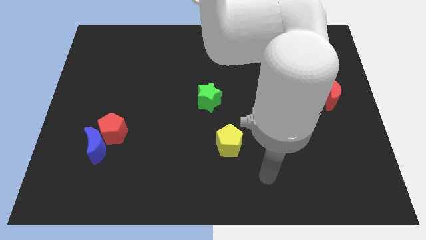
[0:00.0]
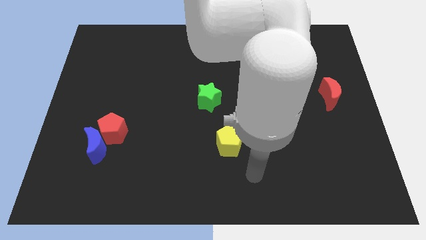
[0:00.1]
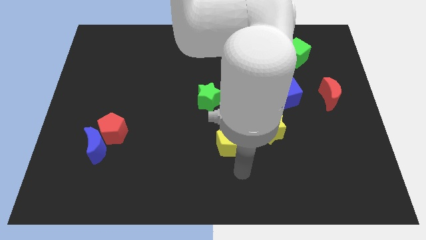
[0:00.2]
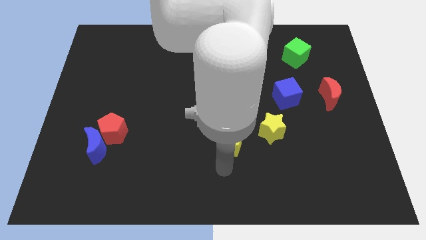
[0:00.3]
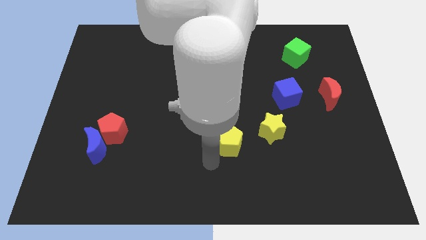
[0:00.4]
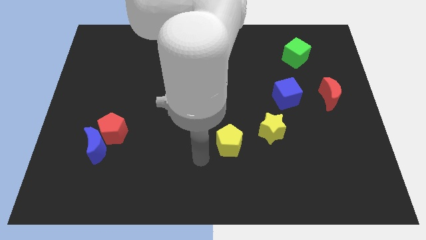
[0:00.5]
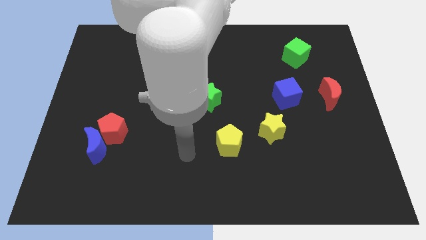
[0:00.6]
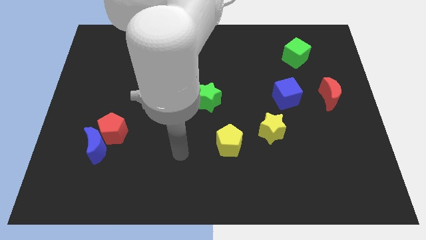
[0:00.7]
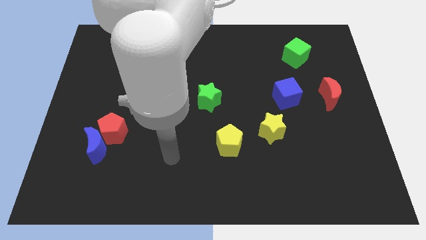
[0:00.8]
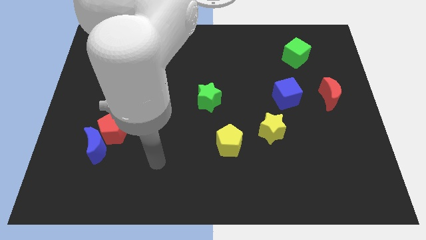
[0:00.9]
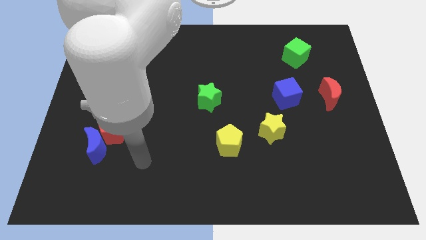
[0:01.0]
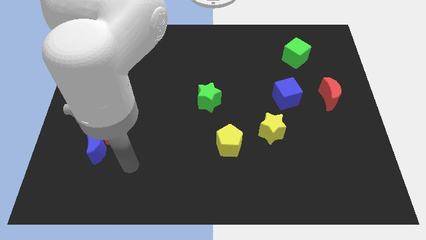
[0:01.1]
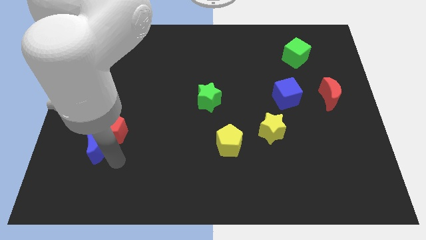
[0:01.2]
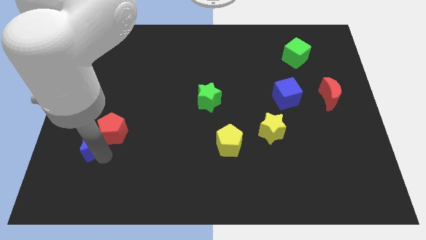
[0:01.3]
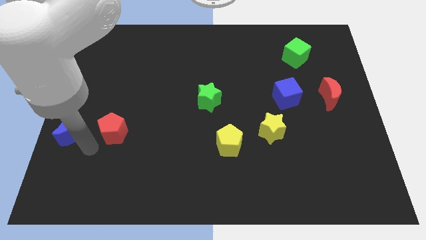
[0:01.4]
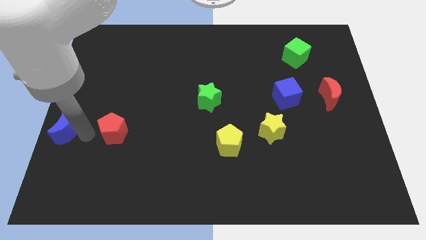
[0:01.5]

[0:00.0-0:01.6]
move the red pentagon away from the blue moon

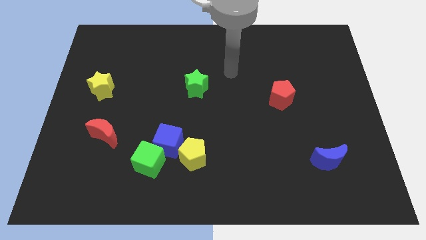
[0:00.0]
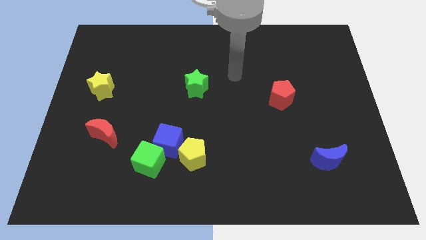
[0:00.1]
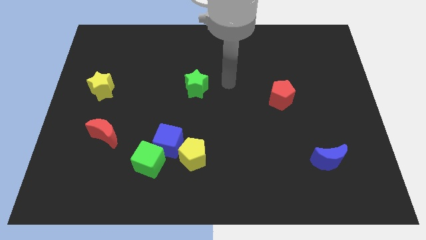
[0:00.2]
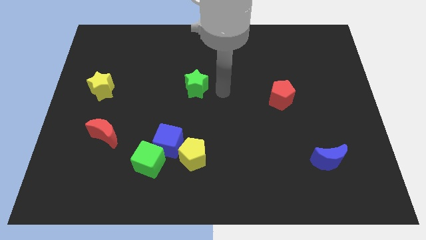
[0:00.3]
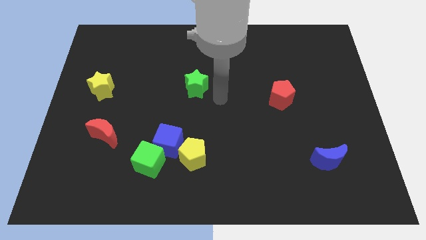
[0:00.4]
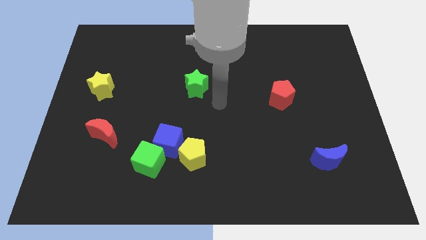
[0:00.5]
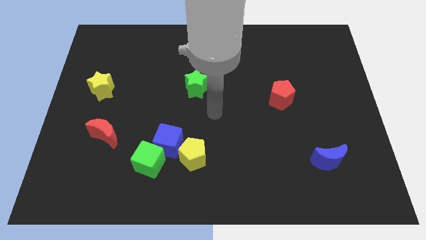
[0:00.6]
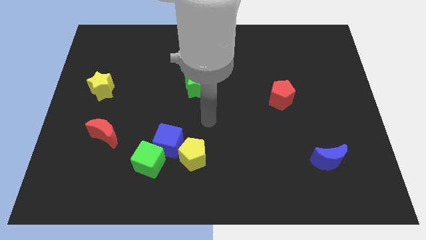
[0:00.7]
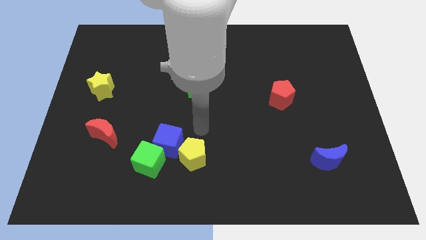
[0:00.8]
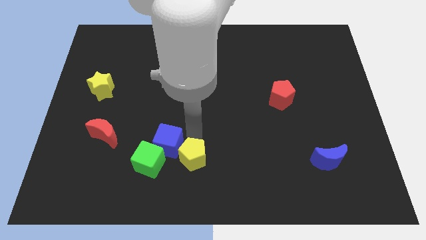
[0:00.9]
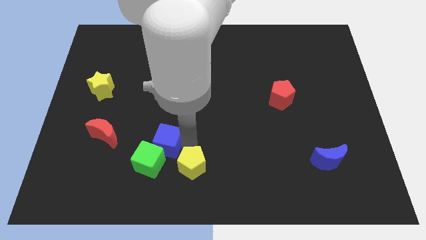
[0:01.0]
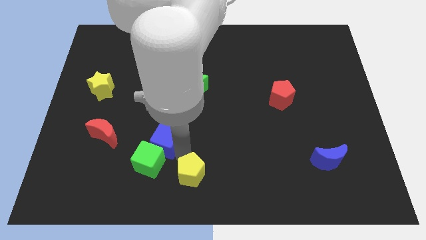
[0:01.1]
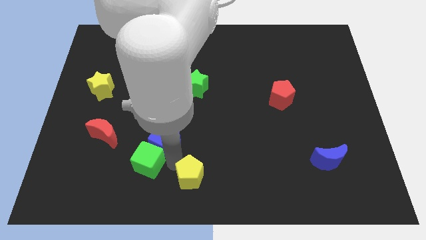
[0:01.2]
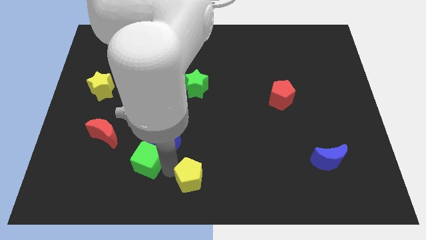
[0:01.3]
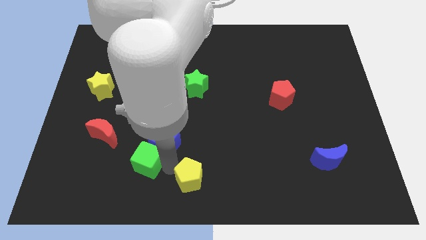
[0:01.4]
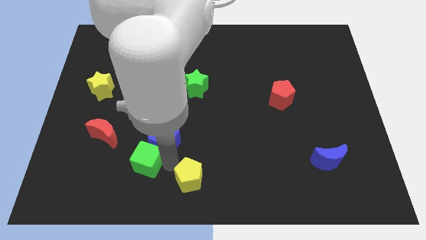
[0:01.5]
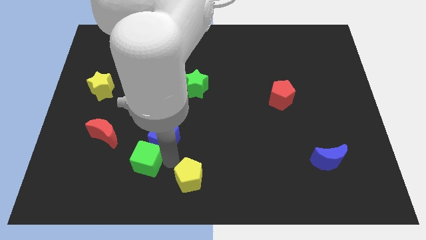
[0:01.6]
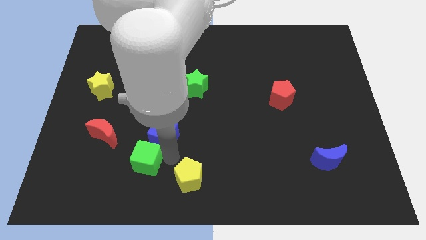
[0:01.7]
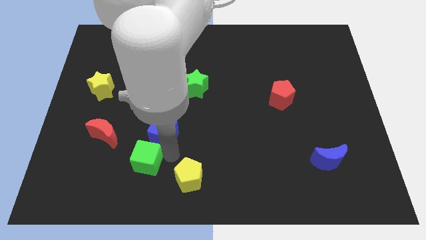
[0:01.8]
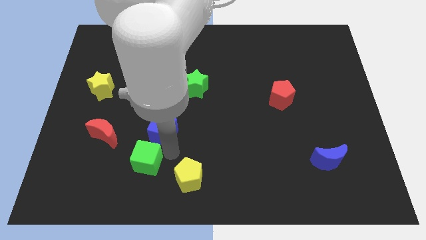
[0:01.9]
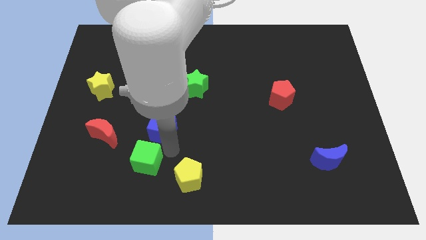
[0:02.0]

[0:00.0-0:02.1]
separate the blue cube from the green cube and yellow pentagon

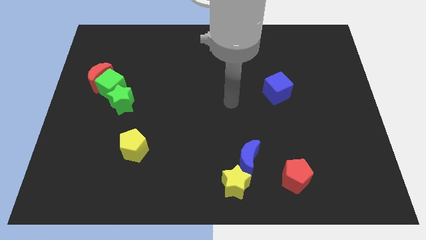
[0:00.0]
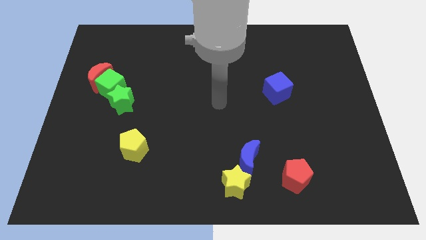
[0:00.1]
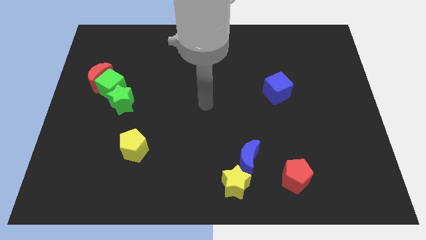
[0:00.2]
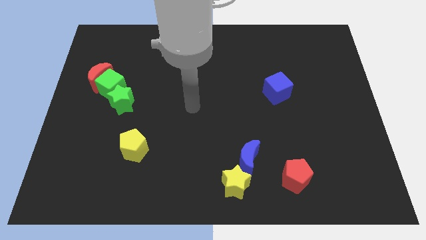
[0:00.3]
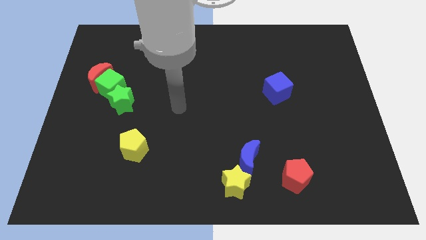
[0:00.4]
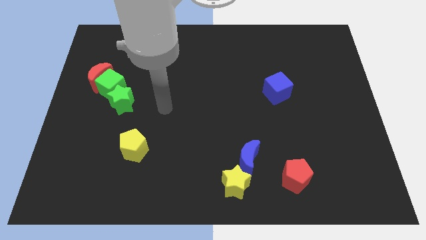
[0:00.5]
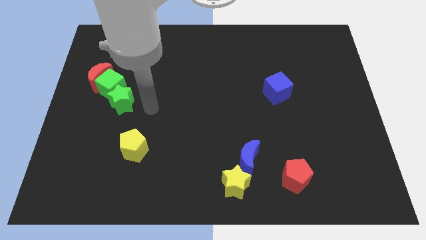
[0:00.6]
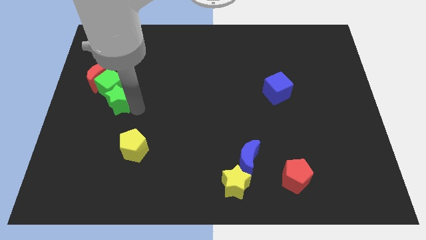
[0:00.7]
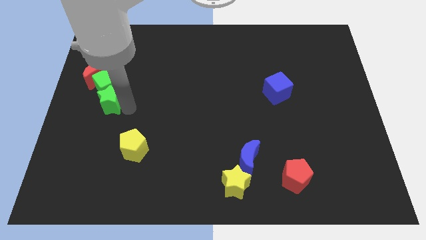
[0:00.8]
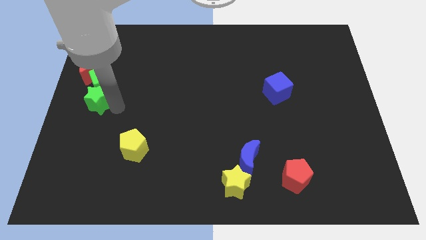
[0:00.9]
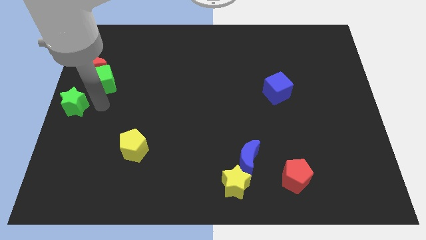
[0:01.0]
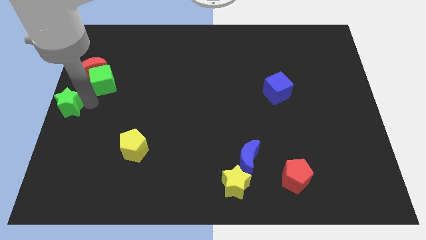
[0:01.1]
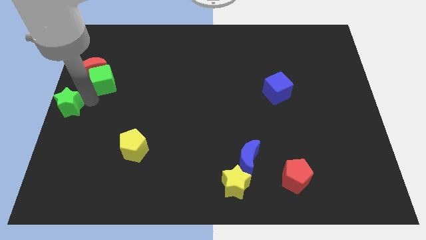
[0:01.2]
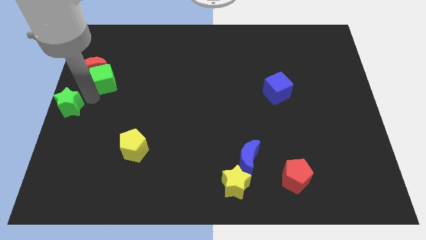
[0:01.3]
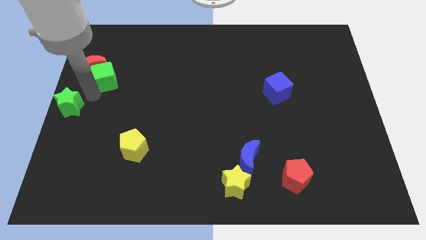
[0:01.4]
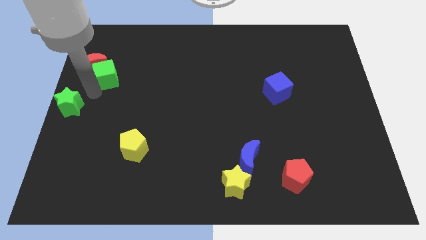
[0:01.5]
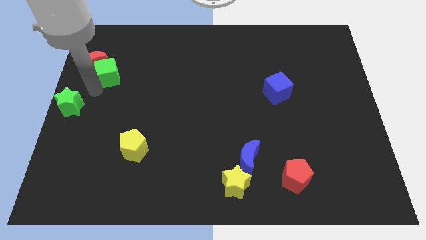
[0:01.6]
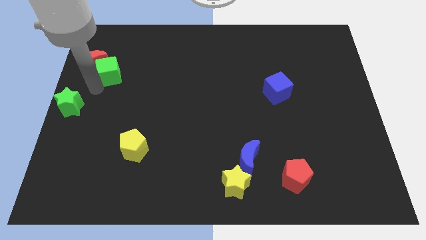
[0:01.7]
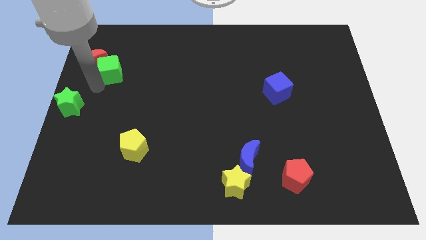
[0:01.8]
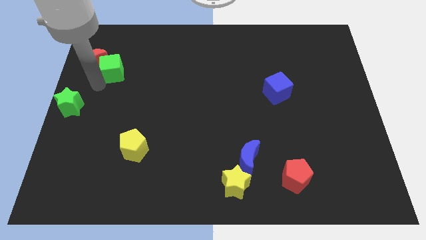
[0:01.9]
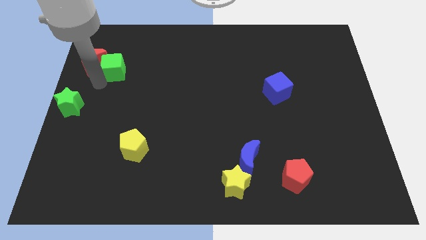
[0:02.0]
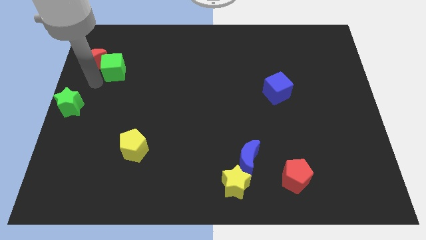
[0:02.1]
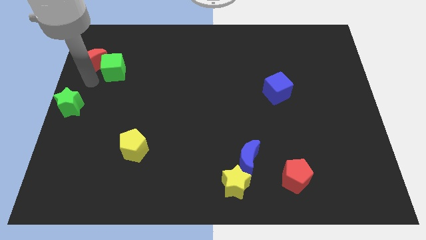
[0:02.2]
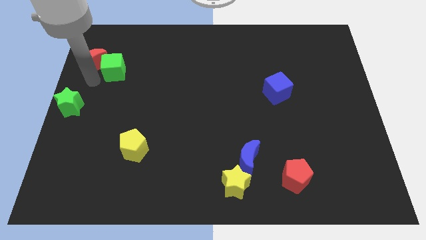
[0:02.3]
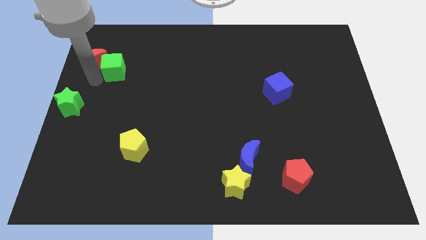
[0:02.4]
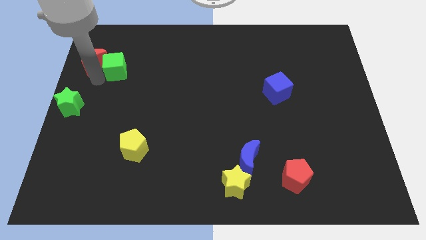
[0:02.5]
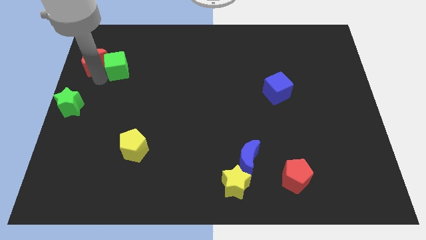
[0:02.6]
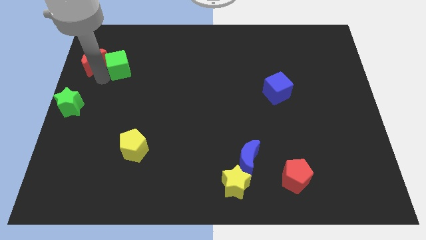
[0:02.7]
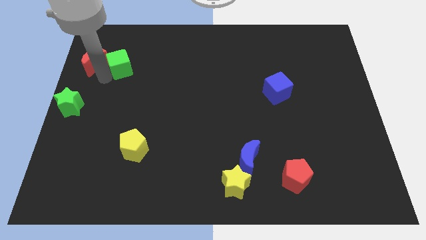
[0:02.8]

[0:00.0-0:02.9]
move the green cube away from the red moon and green star

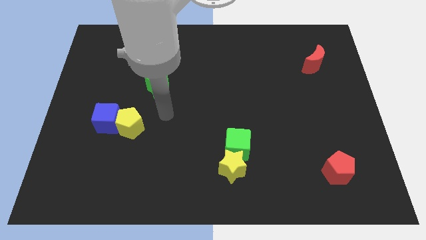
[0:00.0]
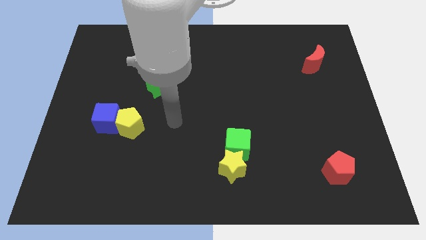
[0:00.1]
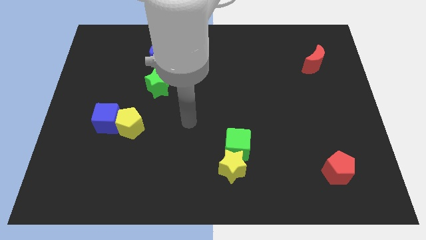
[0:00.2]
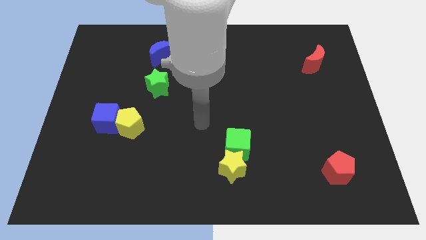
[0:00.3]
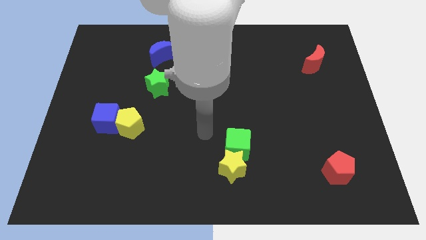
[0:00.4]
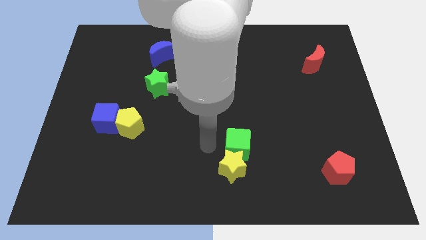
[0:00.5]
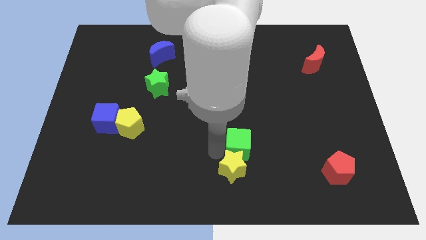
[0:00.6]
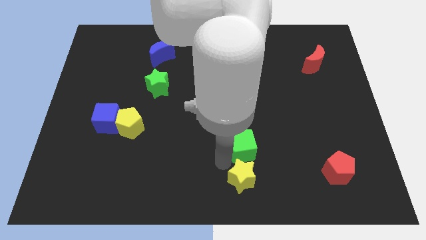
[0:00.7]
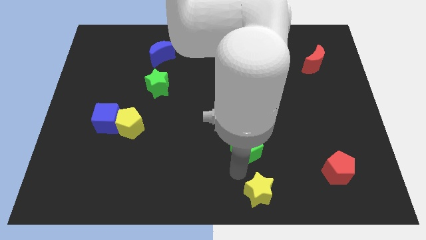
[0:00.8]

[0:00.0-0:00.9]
move the green cube away from the yellow star

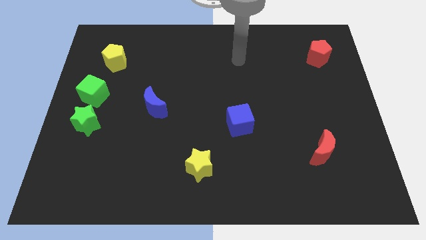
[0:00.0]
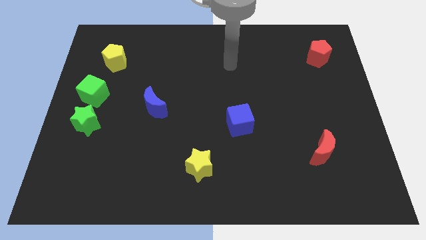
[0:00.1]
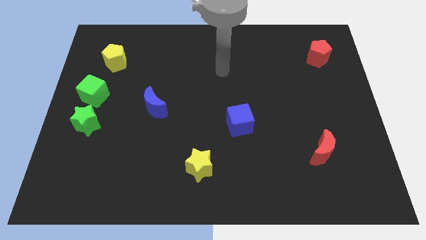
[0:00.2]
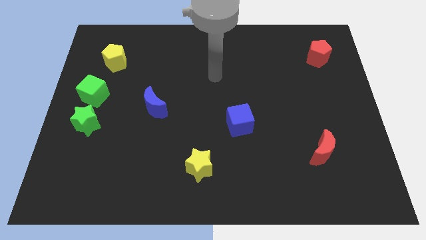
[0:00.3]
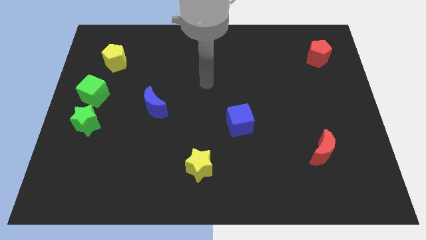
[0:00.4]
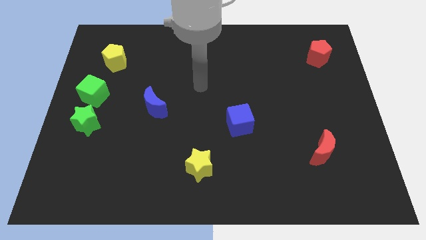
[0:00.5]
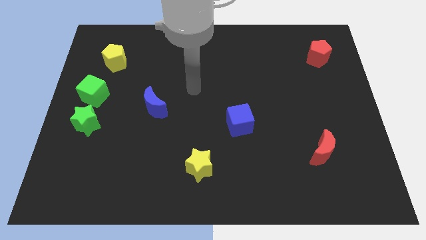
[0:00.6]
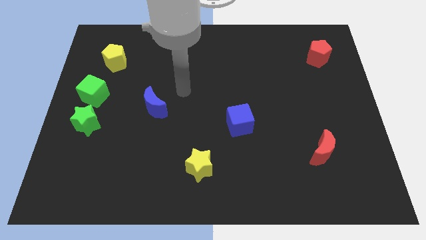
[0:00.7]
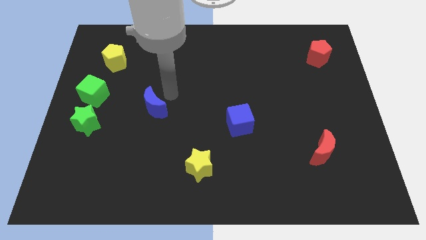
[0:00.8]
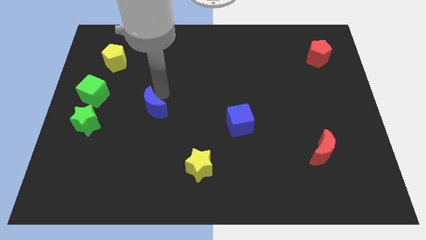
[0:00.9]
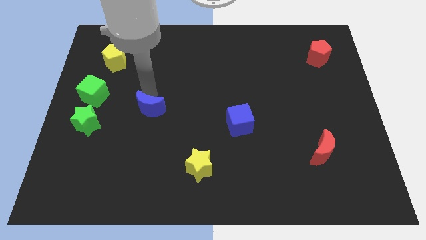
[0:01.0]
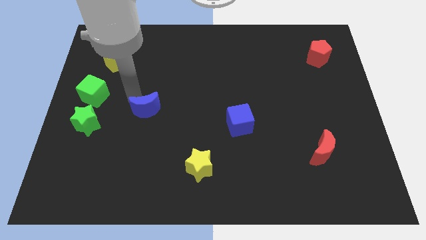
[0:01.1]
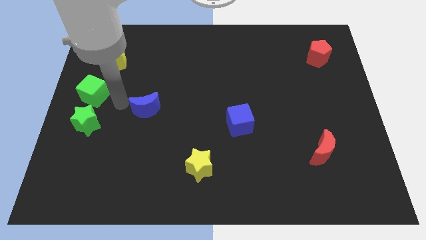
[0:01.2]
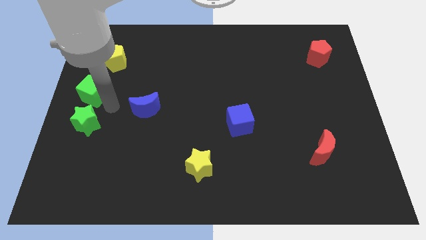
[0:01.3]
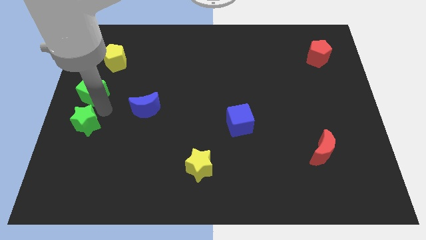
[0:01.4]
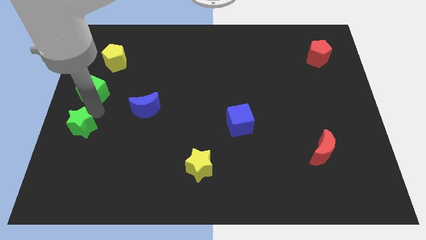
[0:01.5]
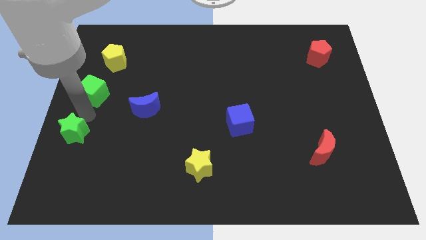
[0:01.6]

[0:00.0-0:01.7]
move the green cube away from the green star

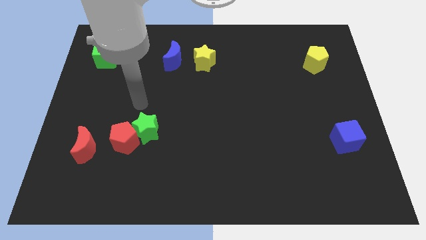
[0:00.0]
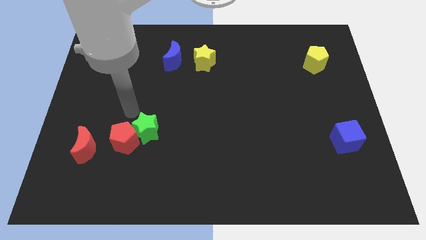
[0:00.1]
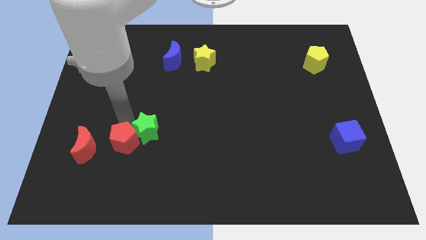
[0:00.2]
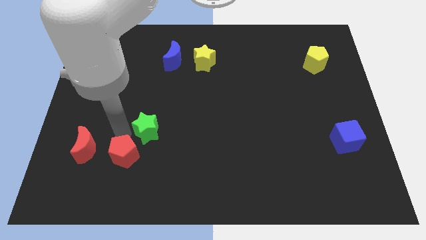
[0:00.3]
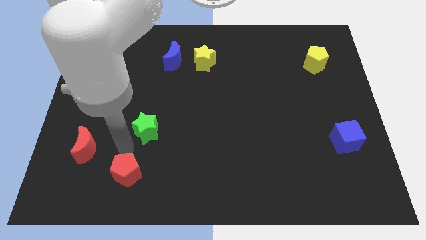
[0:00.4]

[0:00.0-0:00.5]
pull the green star apart from the red pentagon
